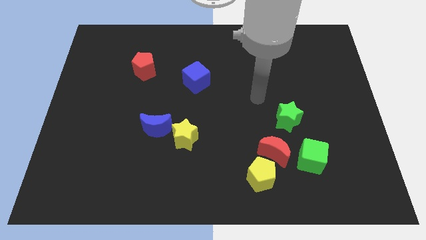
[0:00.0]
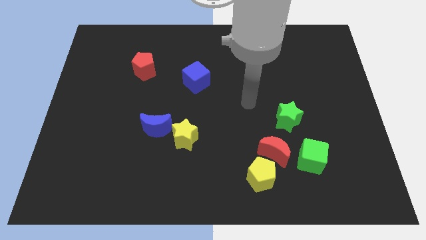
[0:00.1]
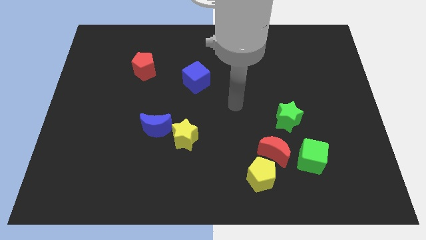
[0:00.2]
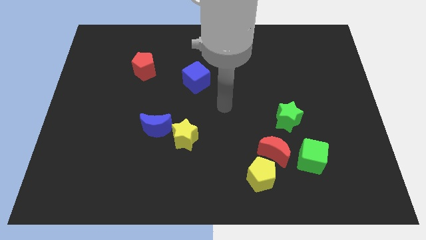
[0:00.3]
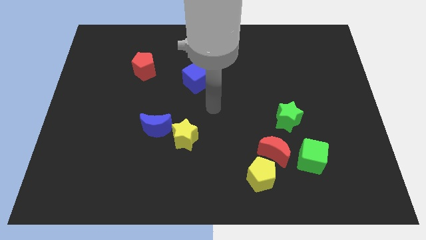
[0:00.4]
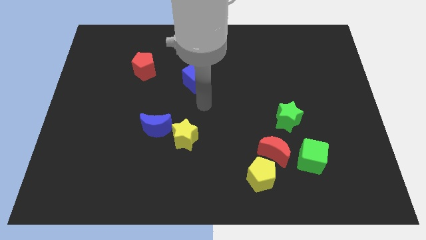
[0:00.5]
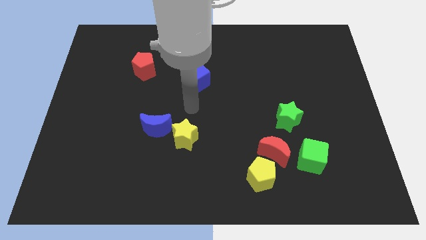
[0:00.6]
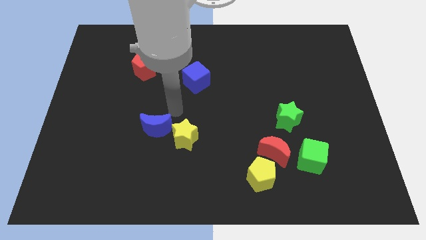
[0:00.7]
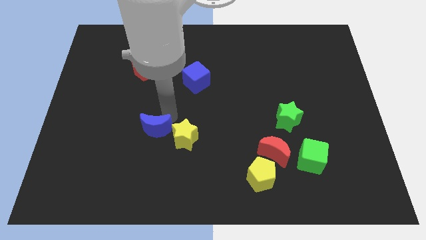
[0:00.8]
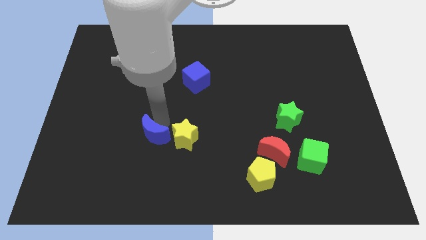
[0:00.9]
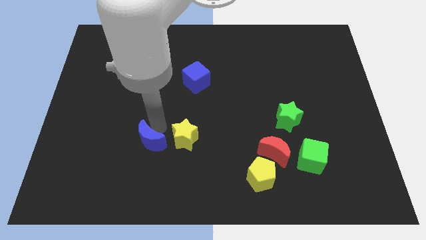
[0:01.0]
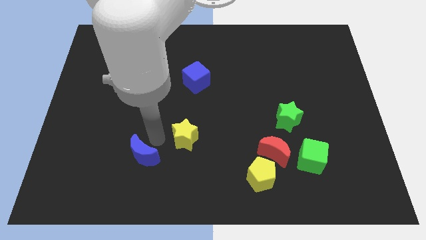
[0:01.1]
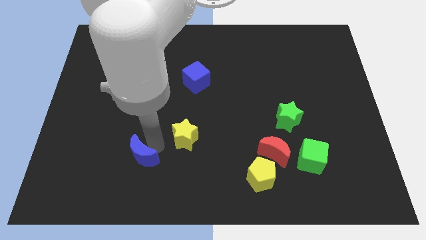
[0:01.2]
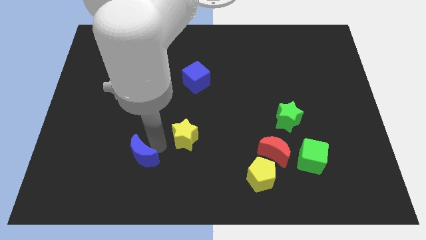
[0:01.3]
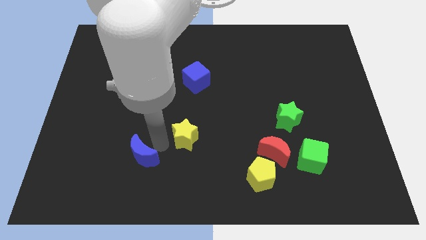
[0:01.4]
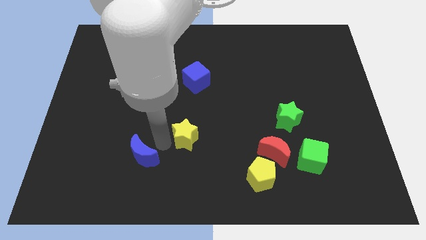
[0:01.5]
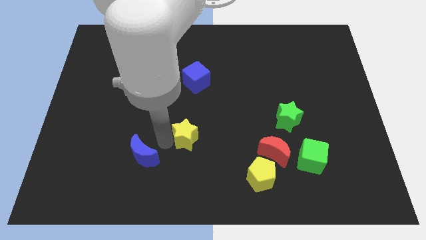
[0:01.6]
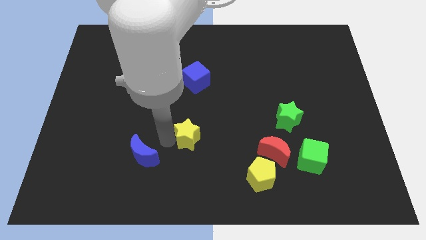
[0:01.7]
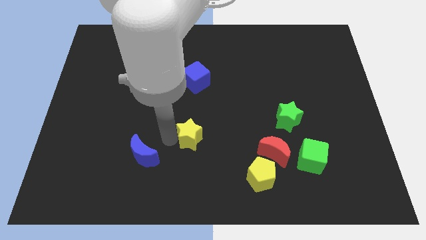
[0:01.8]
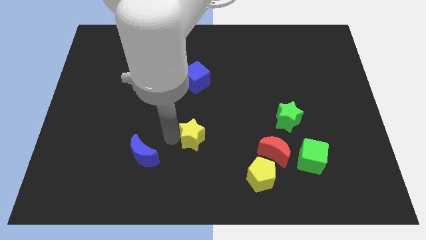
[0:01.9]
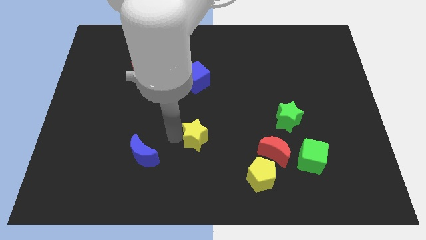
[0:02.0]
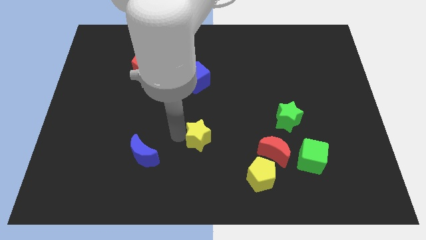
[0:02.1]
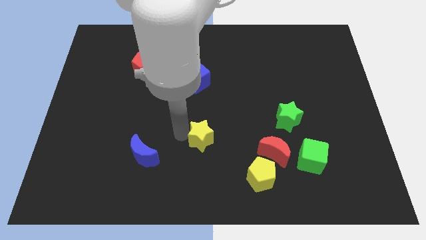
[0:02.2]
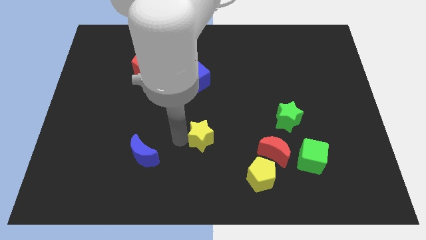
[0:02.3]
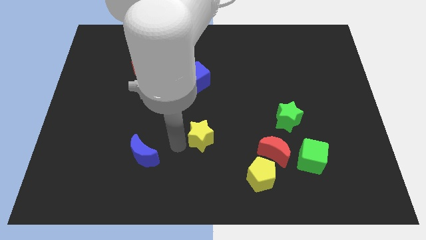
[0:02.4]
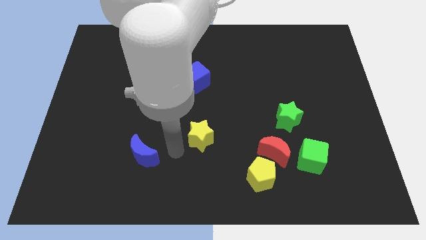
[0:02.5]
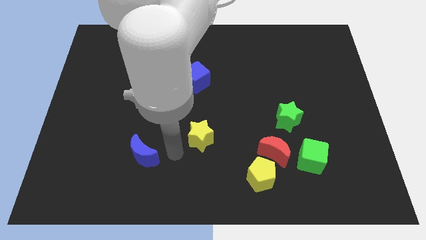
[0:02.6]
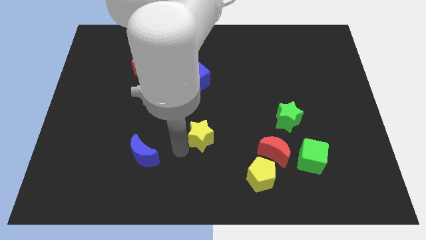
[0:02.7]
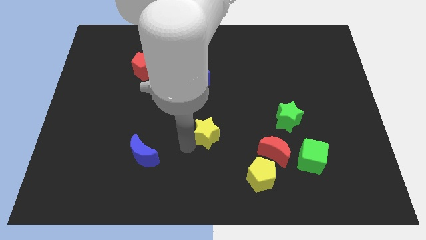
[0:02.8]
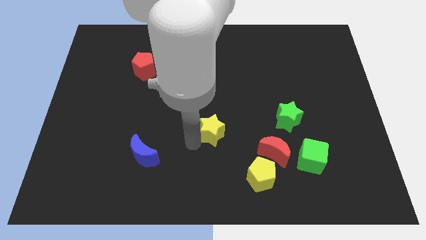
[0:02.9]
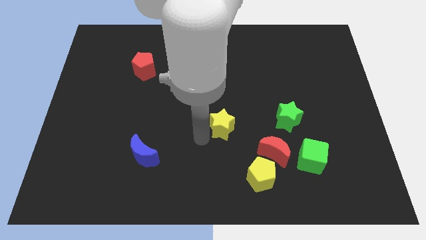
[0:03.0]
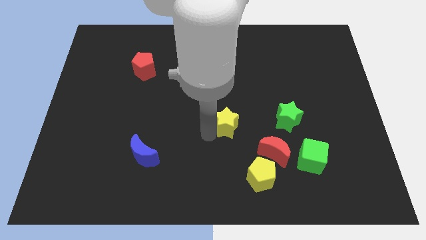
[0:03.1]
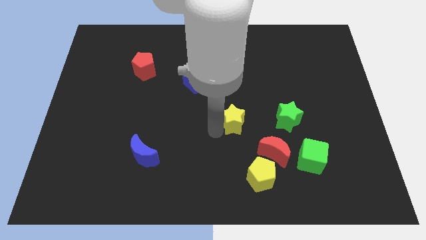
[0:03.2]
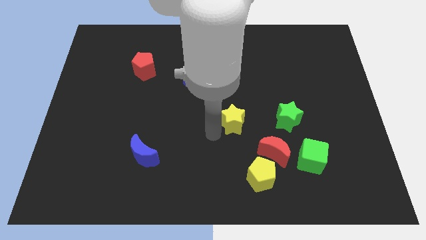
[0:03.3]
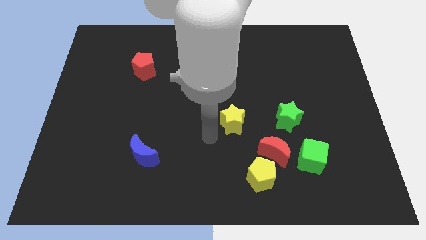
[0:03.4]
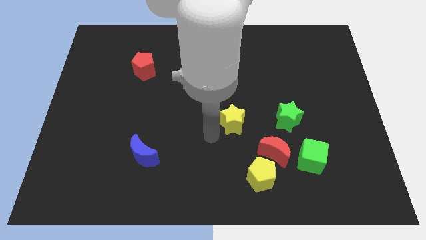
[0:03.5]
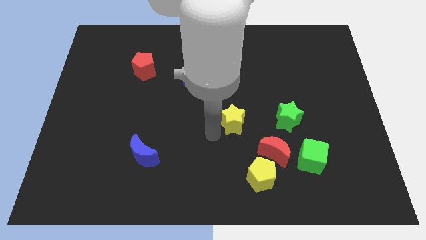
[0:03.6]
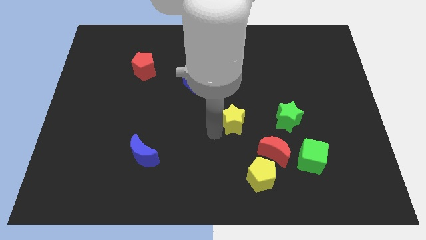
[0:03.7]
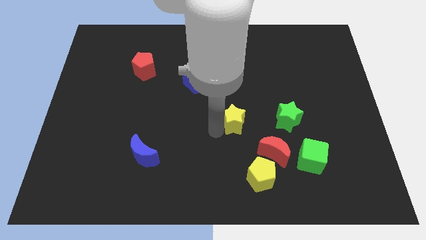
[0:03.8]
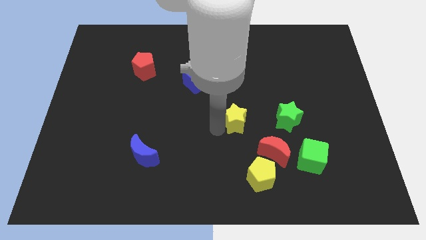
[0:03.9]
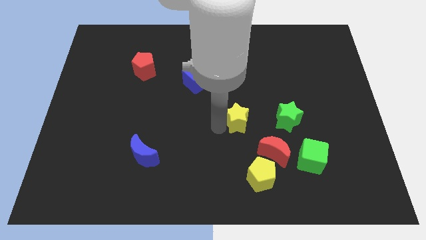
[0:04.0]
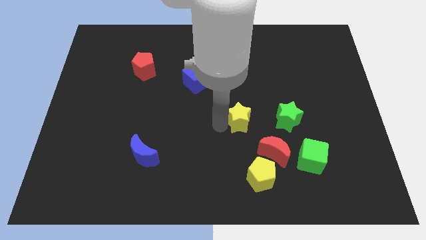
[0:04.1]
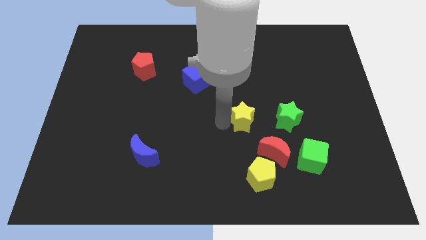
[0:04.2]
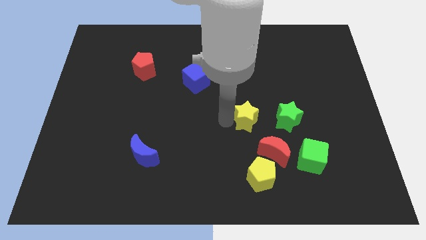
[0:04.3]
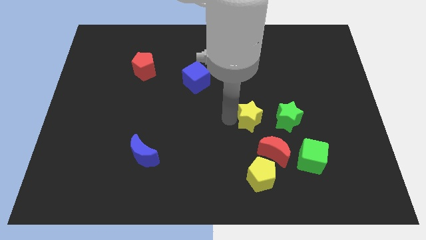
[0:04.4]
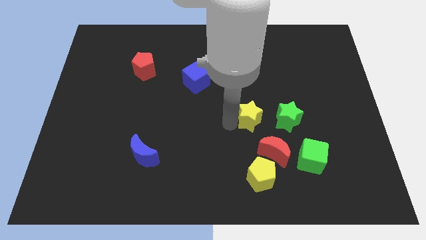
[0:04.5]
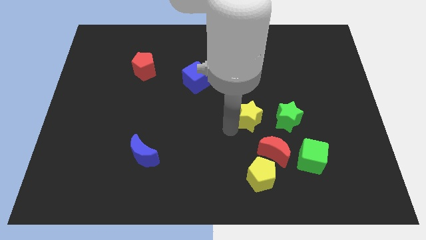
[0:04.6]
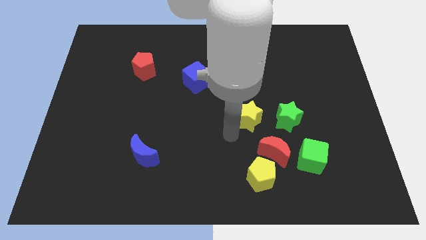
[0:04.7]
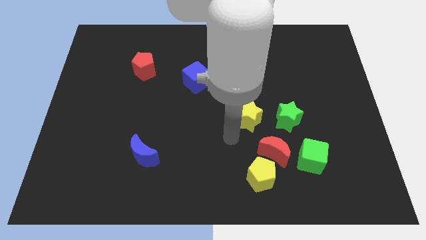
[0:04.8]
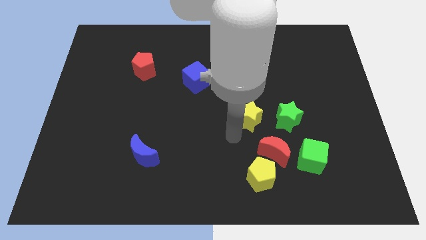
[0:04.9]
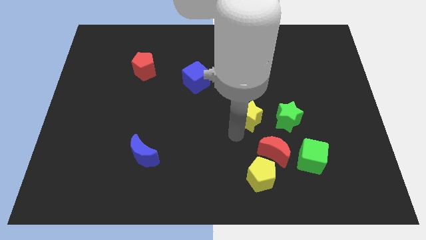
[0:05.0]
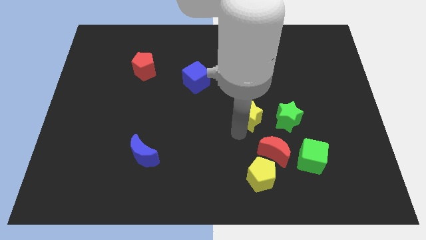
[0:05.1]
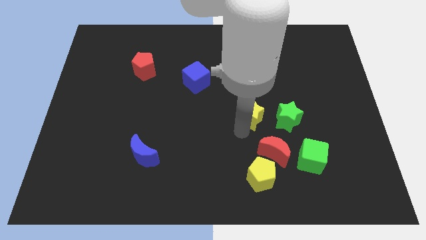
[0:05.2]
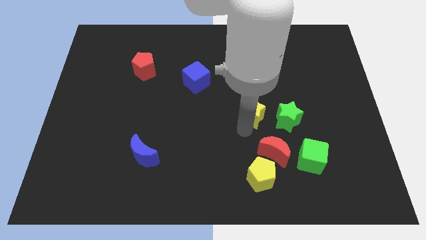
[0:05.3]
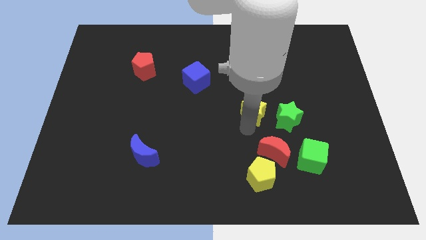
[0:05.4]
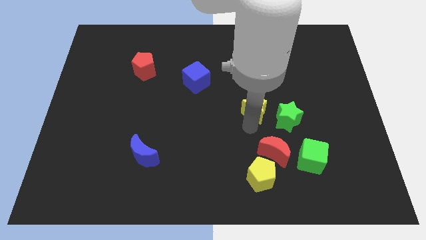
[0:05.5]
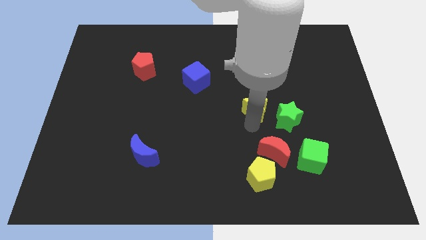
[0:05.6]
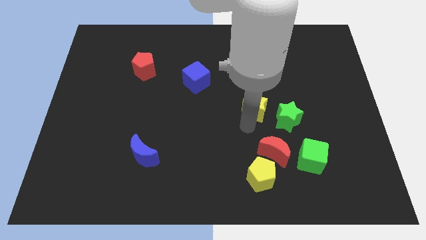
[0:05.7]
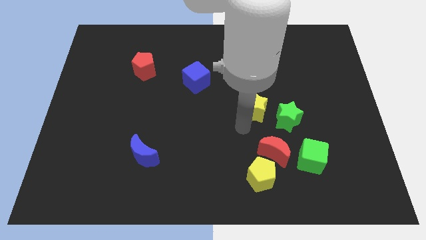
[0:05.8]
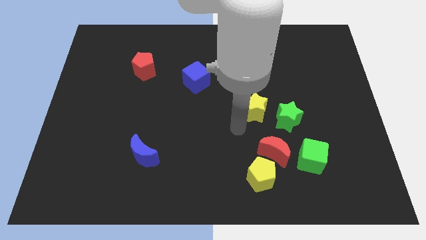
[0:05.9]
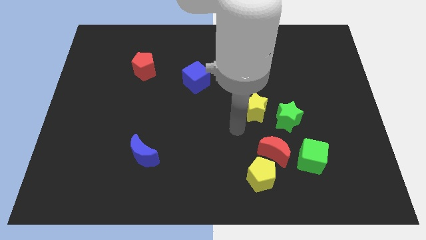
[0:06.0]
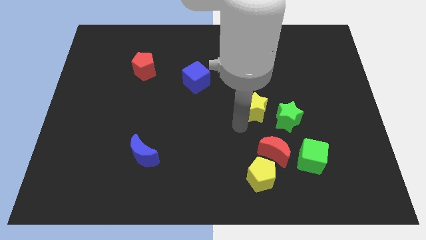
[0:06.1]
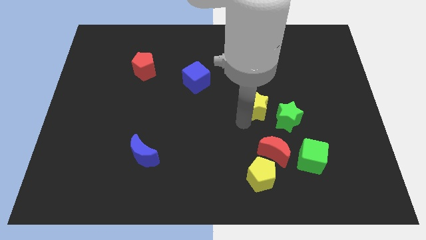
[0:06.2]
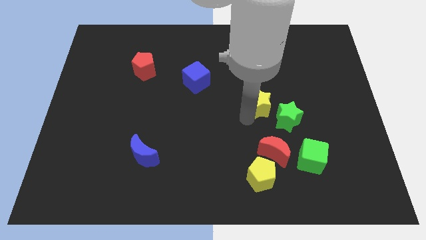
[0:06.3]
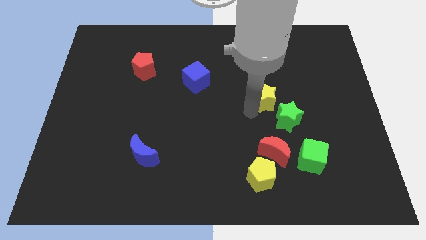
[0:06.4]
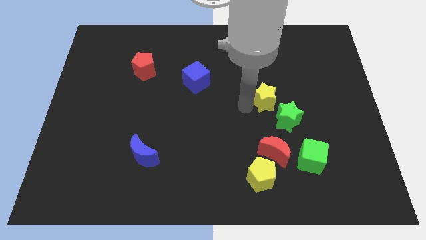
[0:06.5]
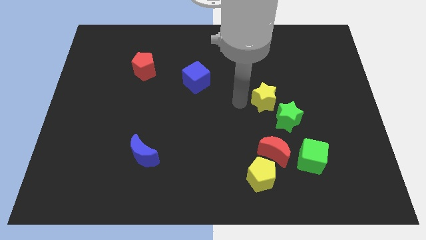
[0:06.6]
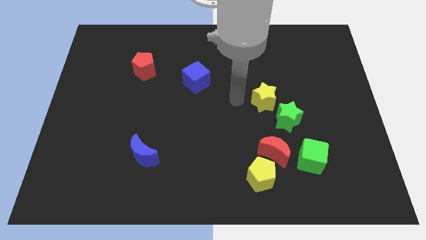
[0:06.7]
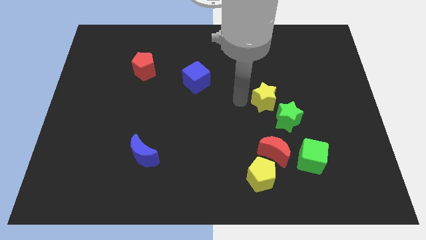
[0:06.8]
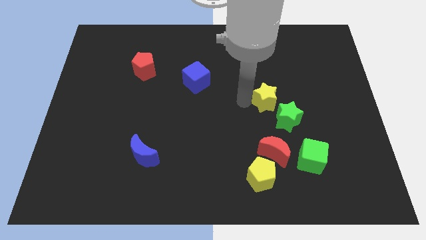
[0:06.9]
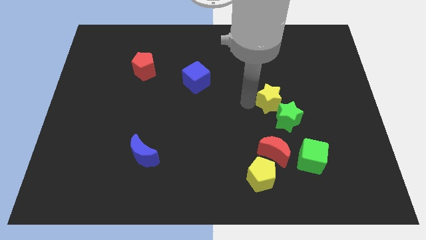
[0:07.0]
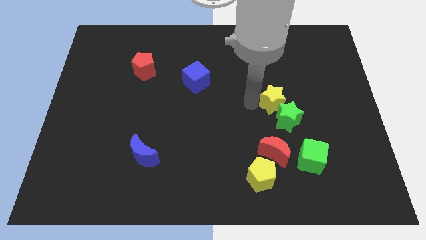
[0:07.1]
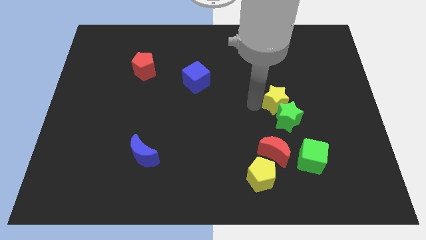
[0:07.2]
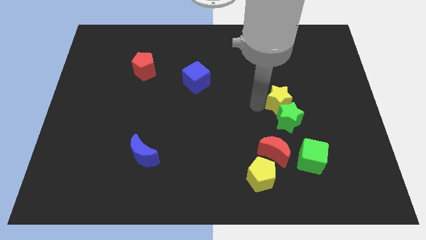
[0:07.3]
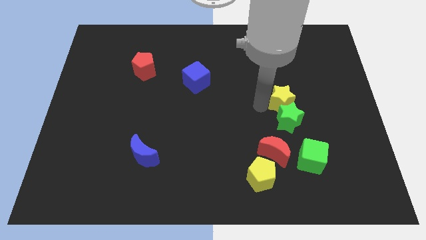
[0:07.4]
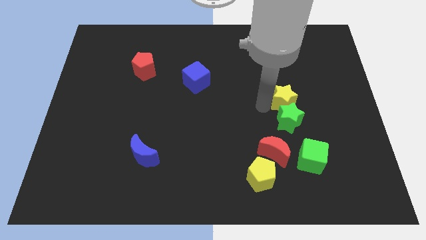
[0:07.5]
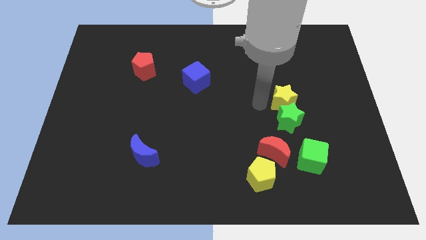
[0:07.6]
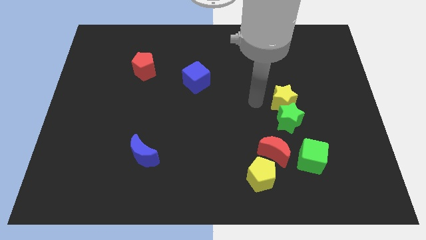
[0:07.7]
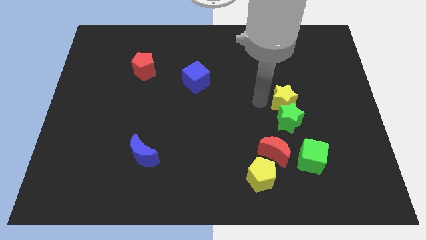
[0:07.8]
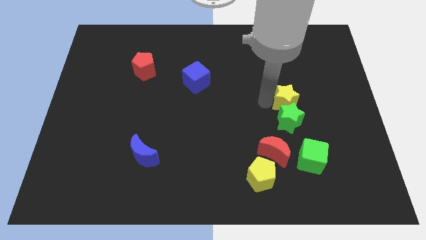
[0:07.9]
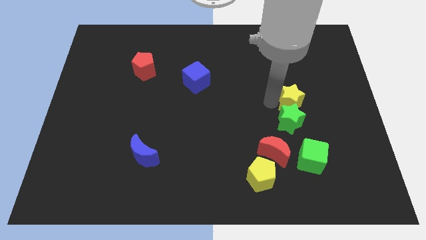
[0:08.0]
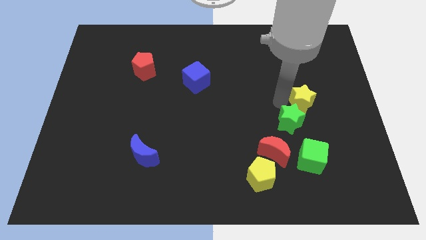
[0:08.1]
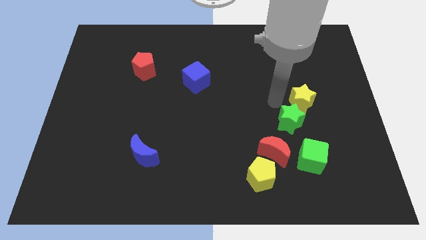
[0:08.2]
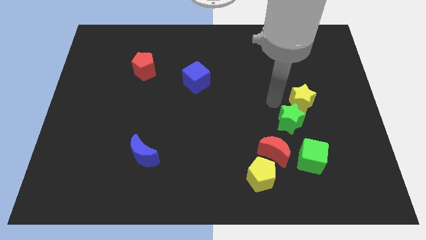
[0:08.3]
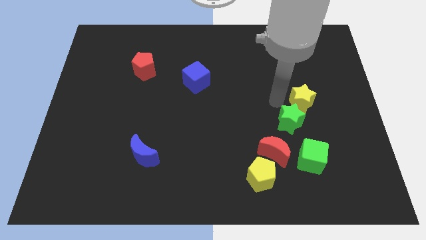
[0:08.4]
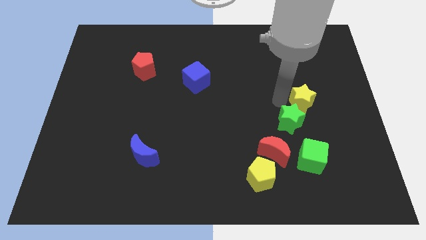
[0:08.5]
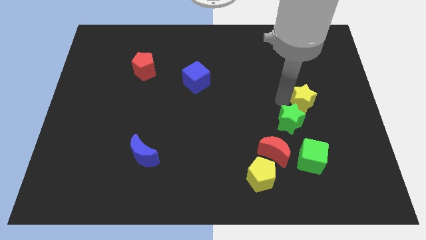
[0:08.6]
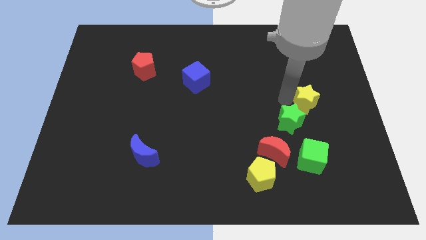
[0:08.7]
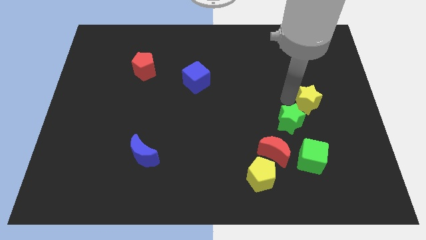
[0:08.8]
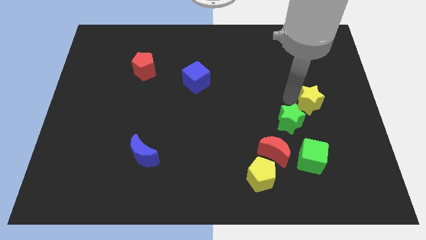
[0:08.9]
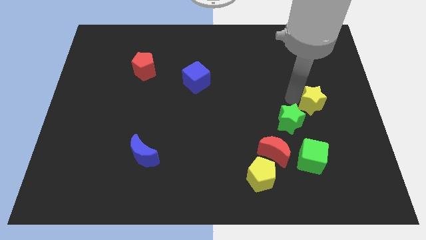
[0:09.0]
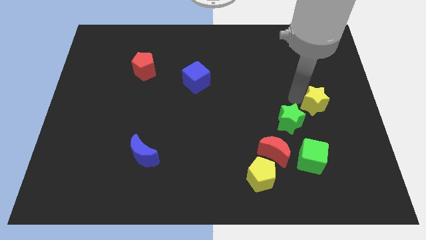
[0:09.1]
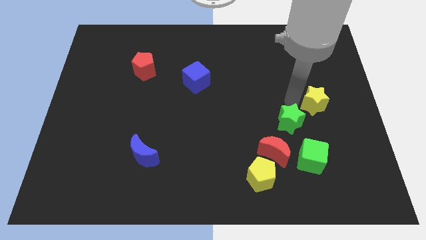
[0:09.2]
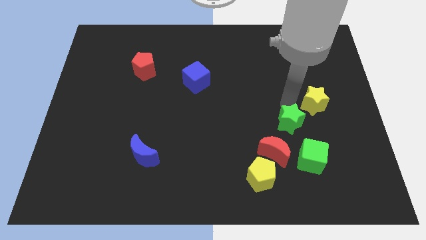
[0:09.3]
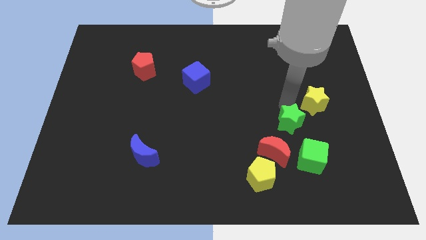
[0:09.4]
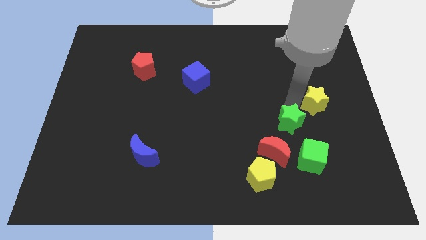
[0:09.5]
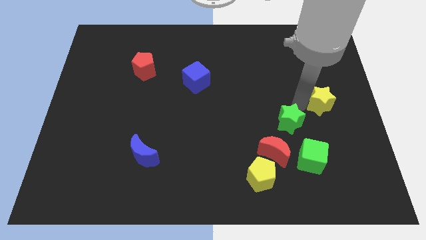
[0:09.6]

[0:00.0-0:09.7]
slide the yellow star to the center right
